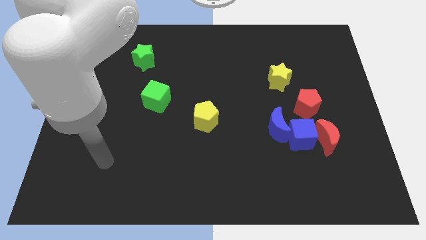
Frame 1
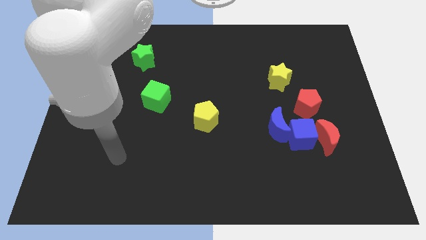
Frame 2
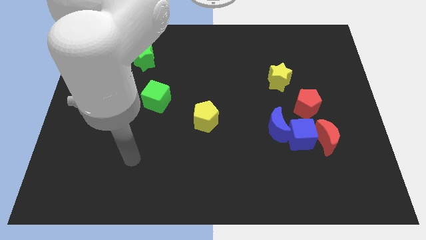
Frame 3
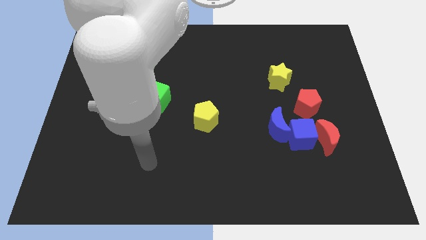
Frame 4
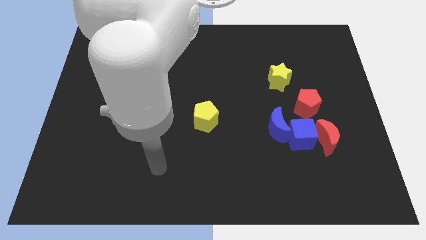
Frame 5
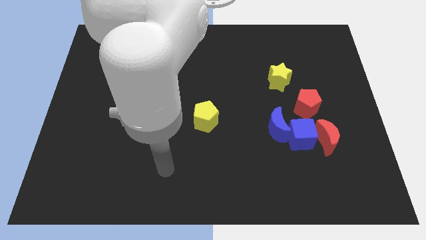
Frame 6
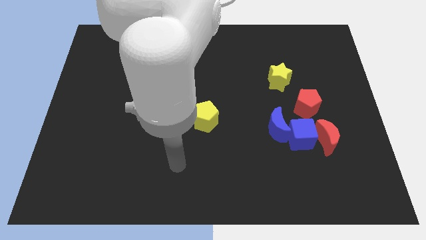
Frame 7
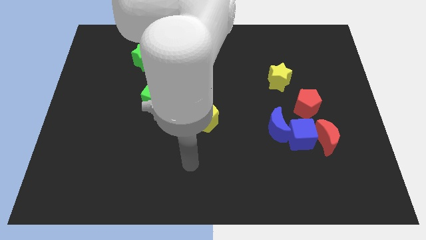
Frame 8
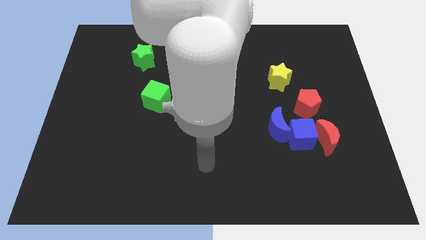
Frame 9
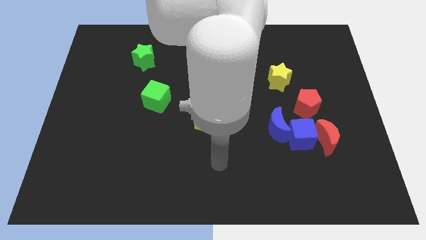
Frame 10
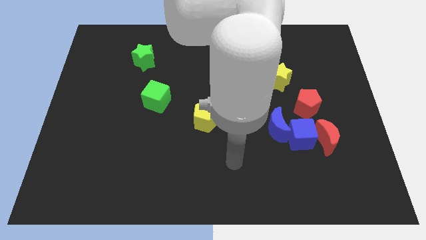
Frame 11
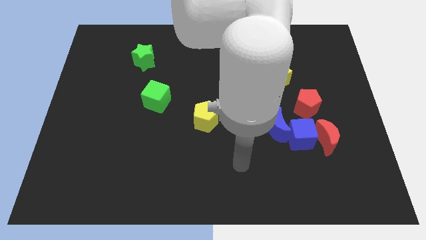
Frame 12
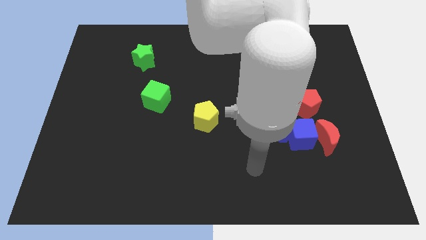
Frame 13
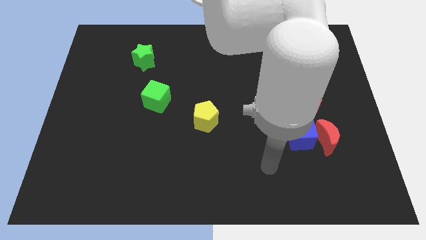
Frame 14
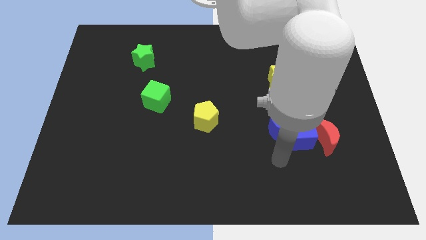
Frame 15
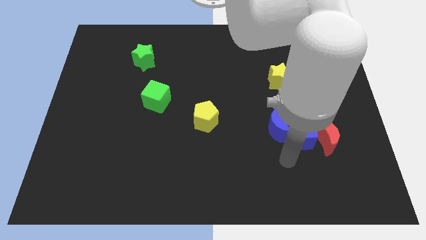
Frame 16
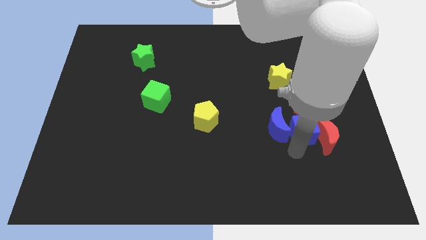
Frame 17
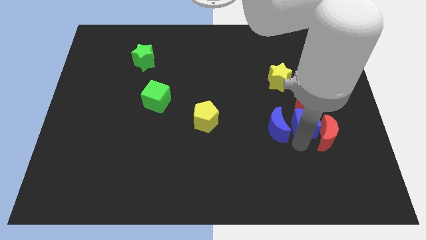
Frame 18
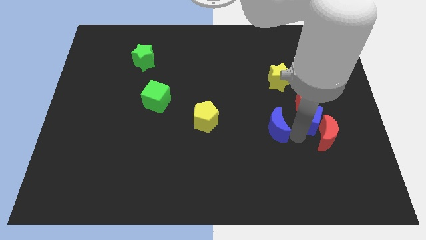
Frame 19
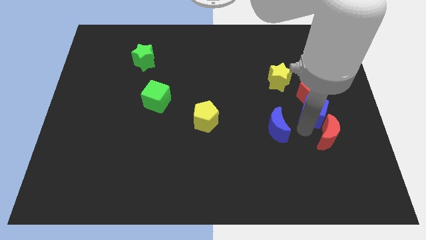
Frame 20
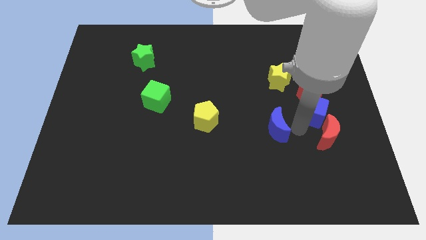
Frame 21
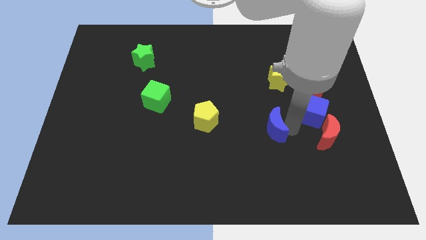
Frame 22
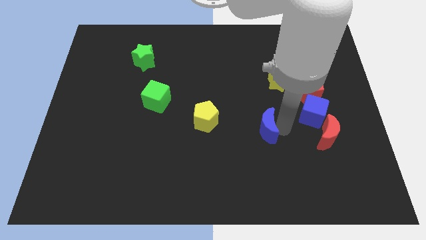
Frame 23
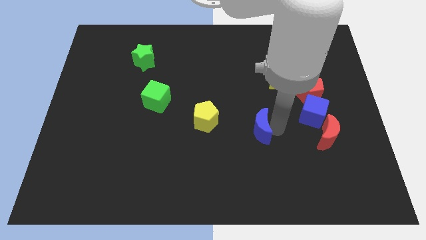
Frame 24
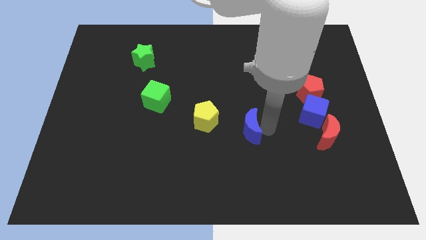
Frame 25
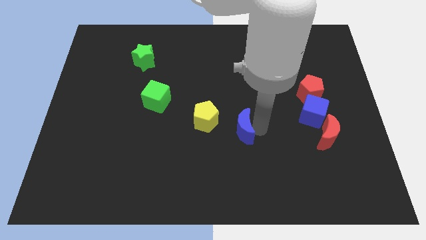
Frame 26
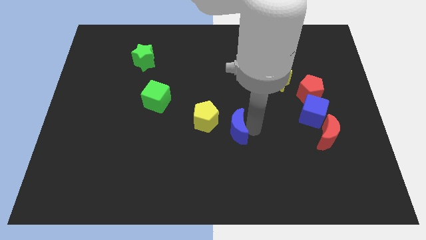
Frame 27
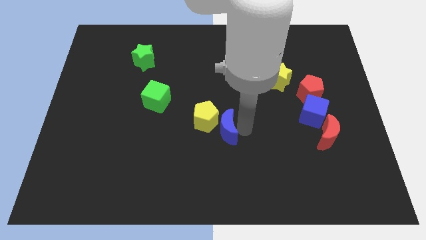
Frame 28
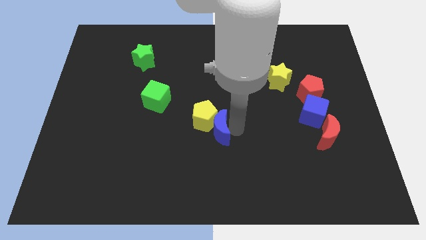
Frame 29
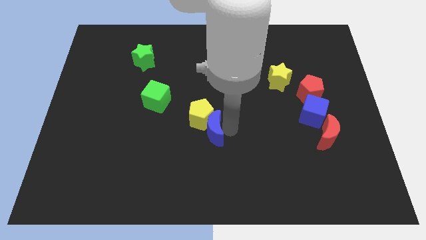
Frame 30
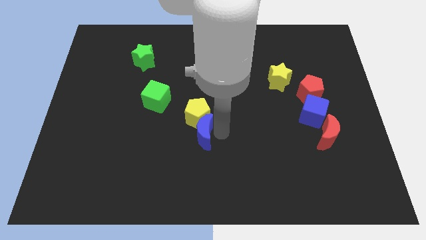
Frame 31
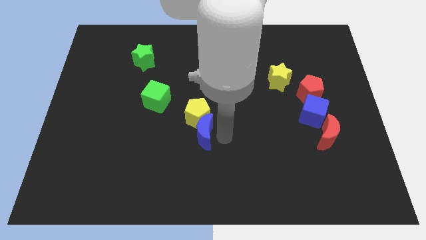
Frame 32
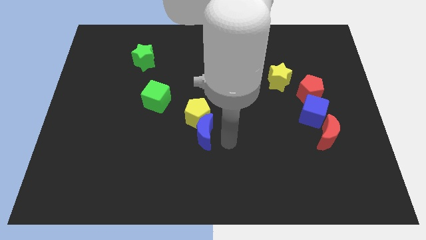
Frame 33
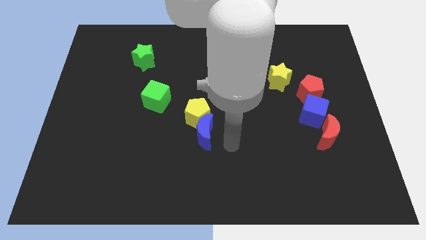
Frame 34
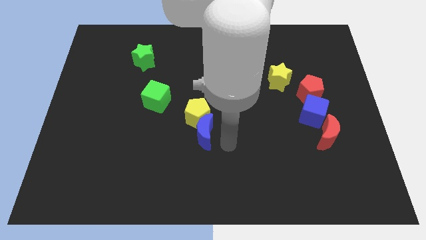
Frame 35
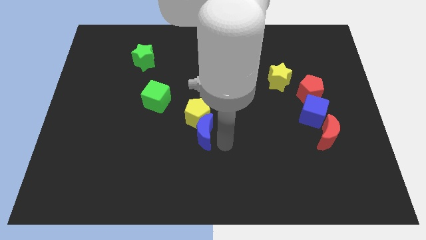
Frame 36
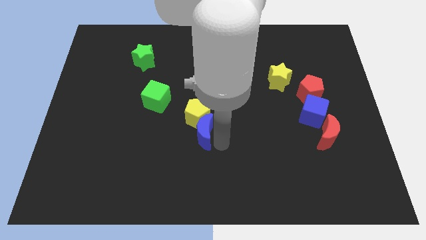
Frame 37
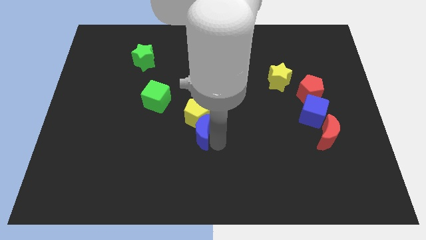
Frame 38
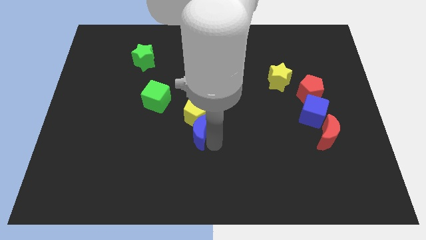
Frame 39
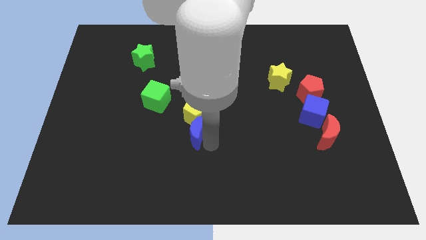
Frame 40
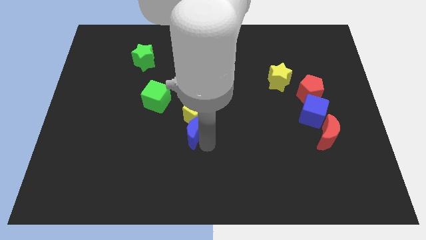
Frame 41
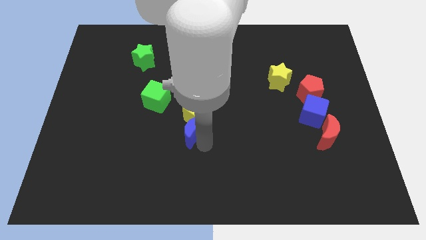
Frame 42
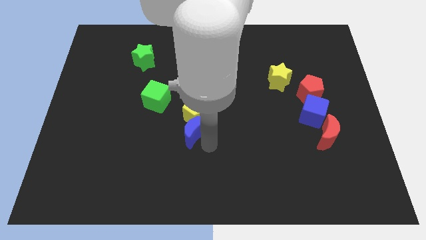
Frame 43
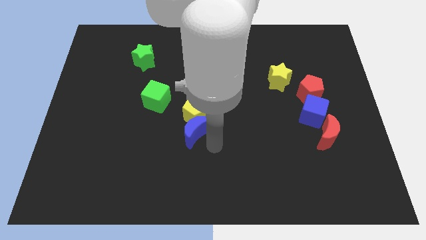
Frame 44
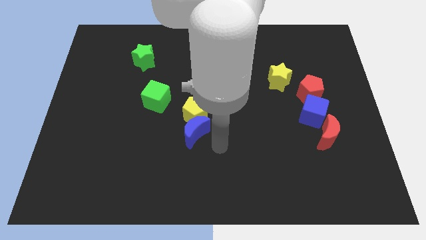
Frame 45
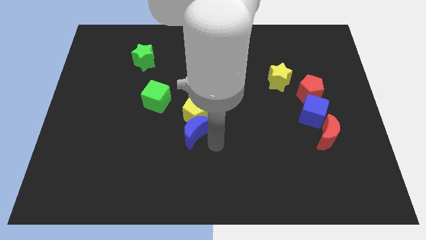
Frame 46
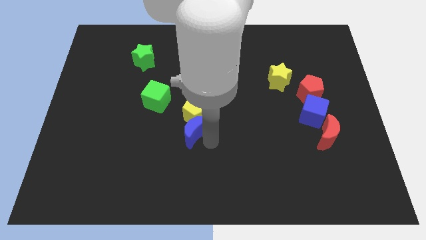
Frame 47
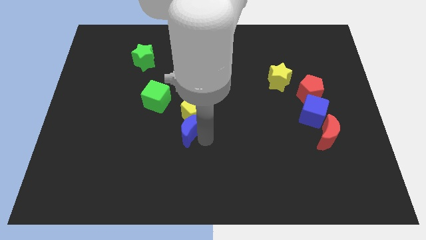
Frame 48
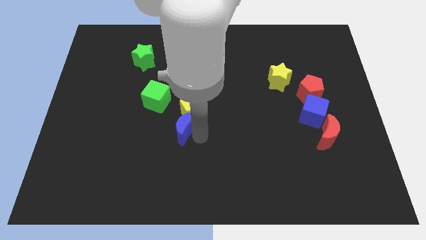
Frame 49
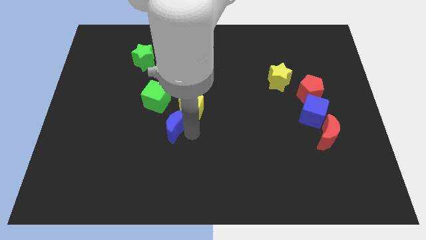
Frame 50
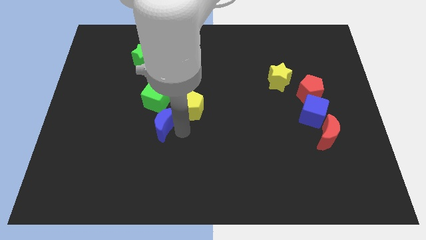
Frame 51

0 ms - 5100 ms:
put the blue moon just left of the yellow pentagon

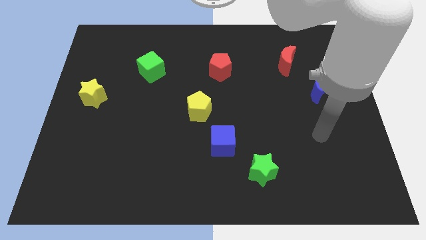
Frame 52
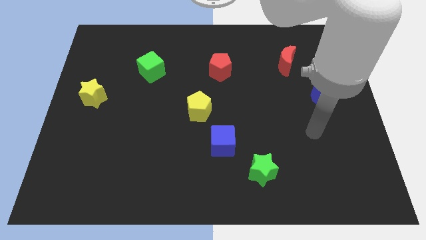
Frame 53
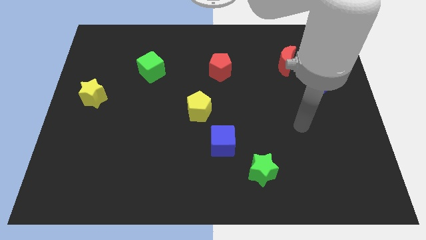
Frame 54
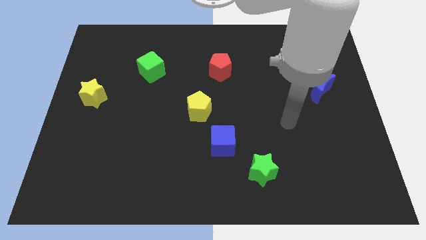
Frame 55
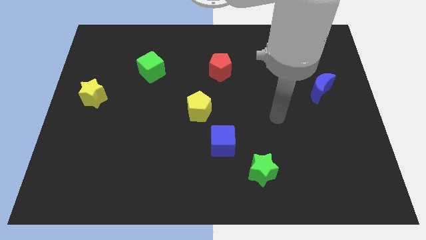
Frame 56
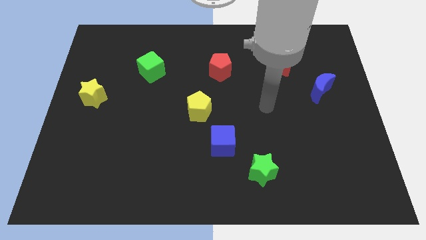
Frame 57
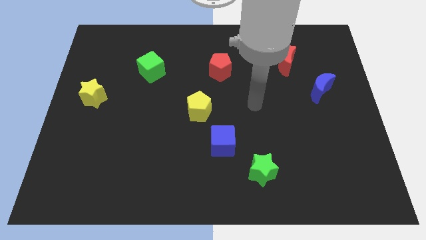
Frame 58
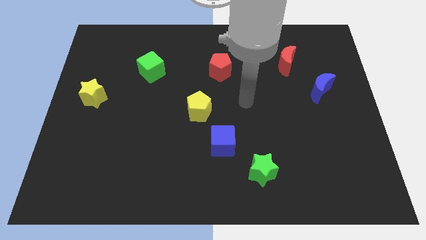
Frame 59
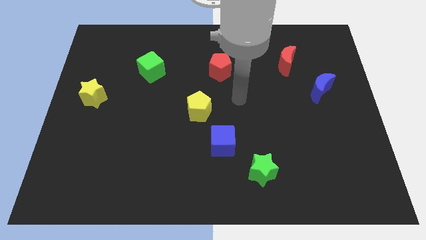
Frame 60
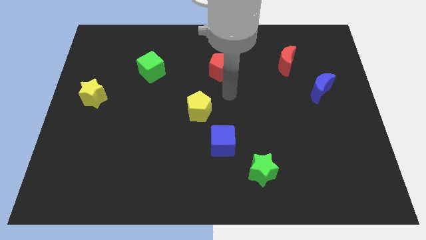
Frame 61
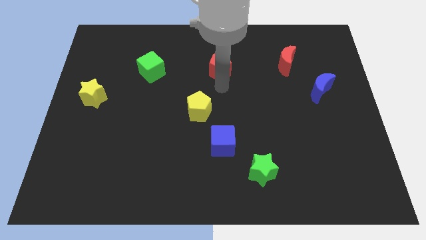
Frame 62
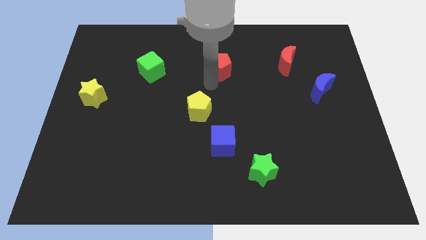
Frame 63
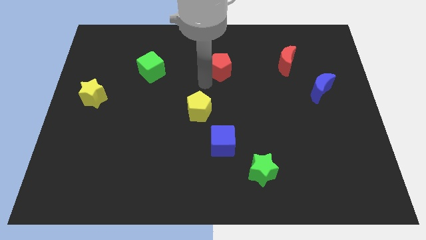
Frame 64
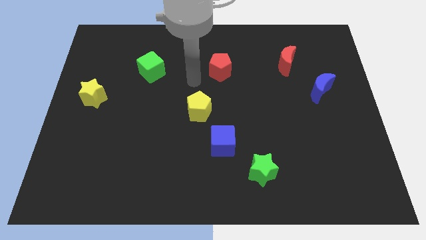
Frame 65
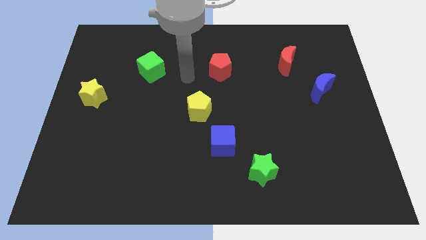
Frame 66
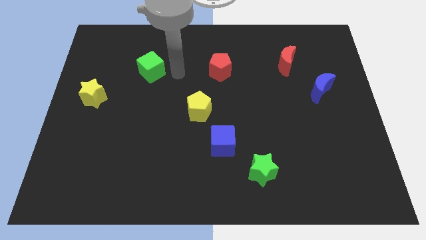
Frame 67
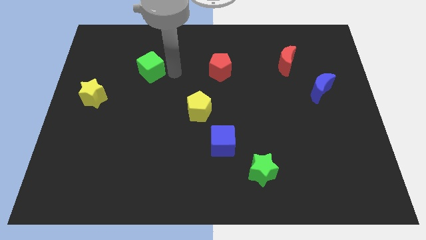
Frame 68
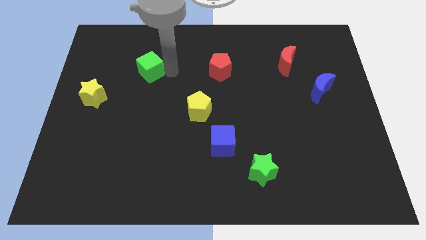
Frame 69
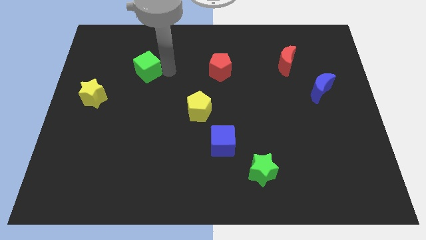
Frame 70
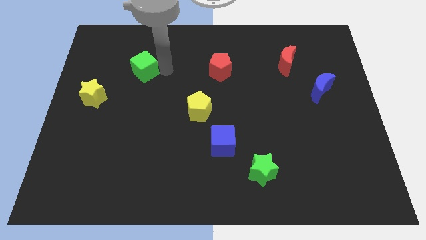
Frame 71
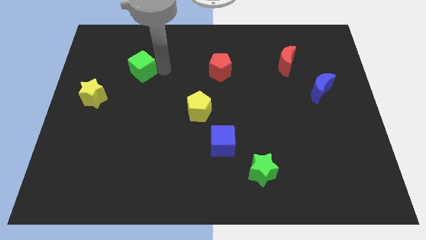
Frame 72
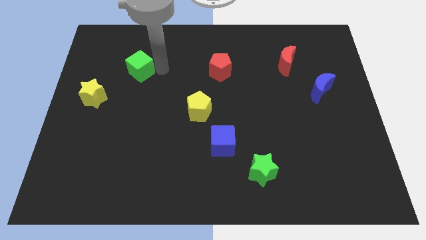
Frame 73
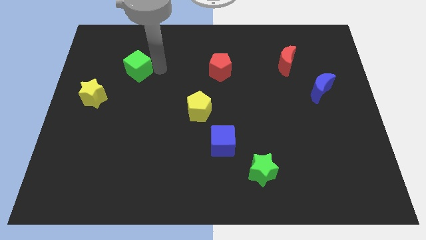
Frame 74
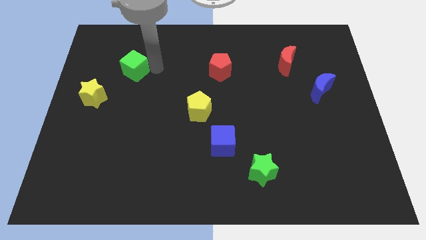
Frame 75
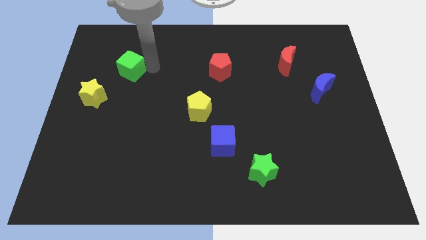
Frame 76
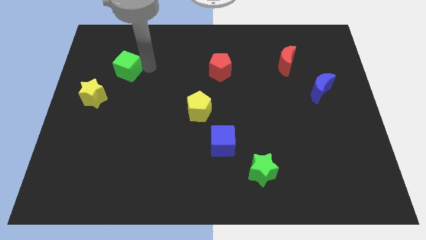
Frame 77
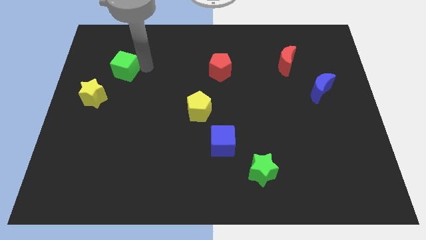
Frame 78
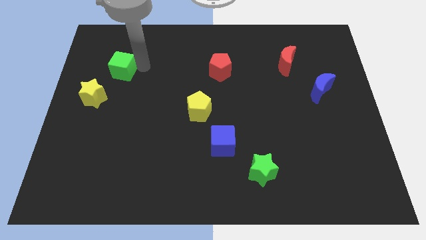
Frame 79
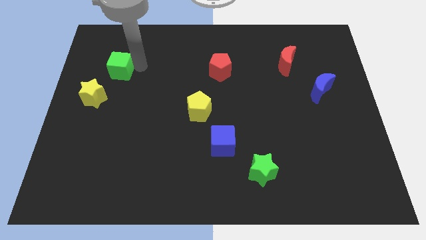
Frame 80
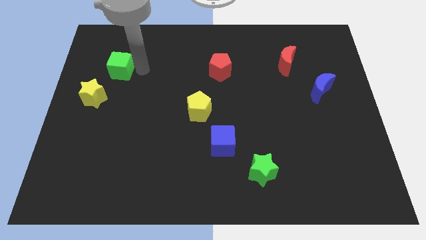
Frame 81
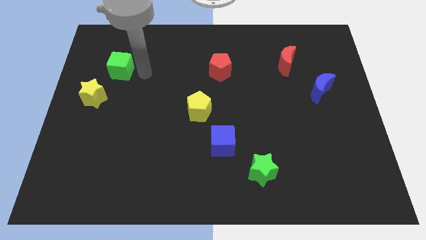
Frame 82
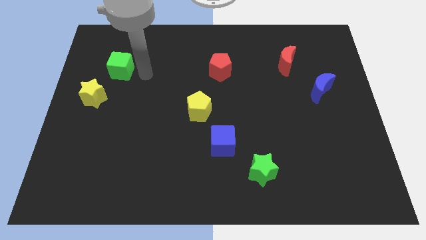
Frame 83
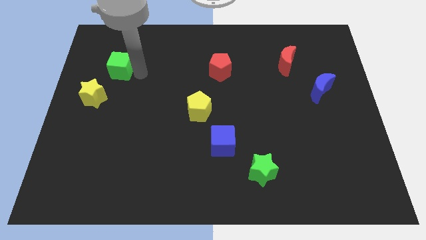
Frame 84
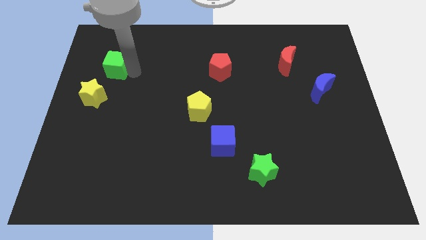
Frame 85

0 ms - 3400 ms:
put the green cube to the top of the yellow star
